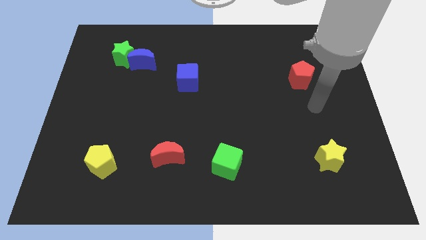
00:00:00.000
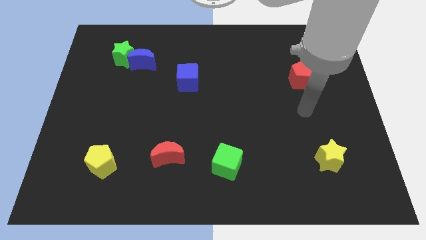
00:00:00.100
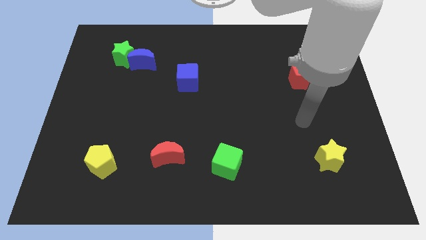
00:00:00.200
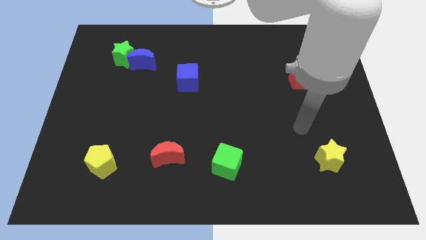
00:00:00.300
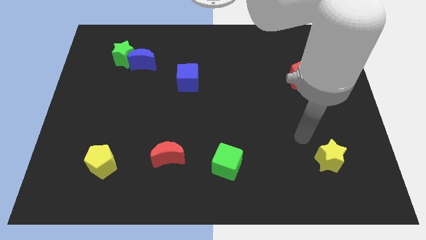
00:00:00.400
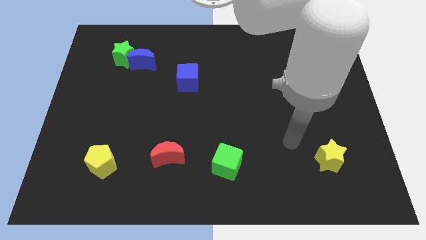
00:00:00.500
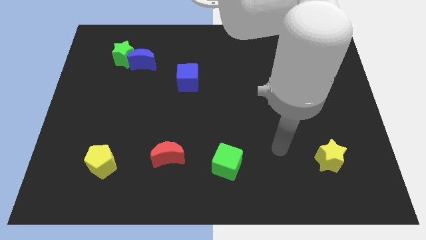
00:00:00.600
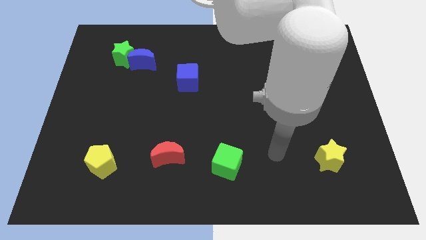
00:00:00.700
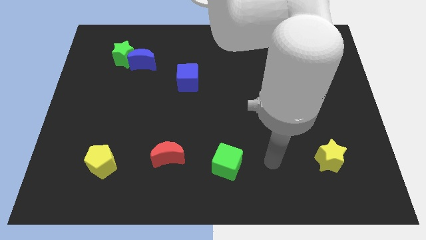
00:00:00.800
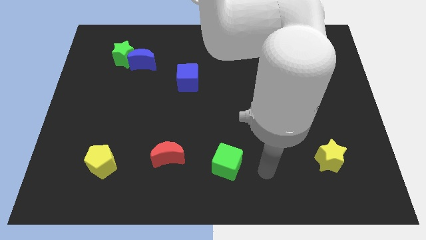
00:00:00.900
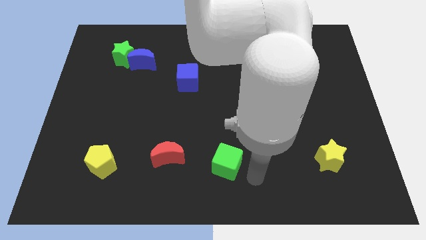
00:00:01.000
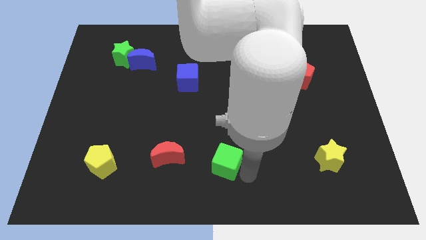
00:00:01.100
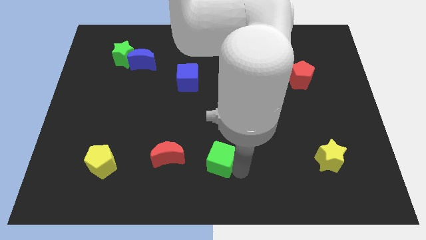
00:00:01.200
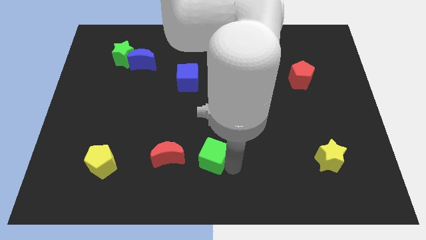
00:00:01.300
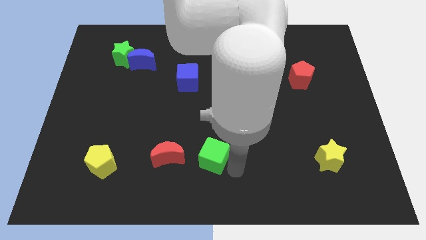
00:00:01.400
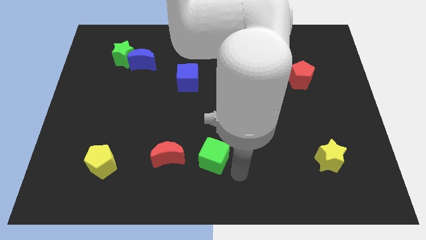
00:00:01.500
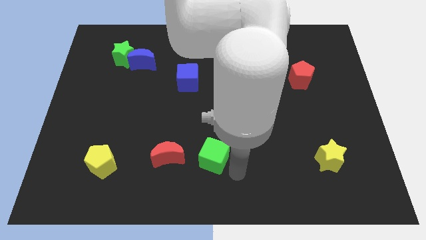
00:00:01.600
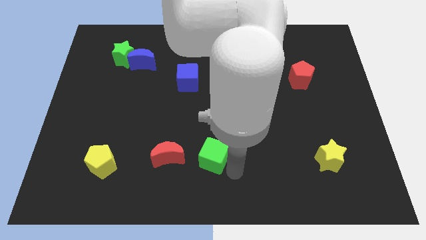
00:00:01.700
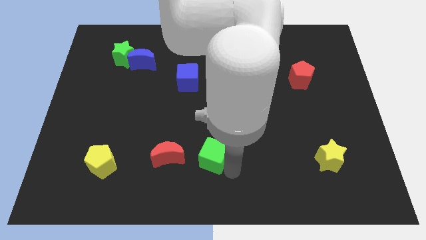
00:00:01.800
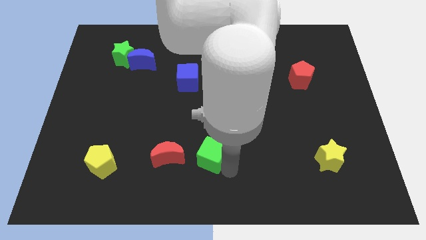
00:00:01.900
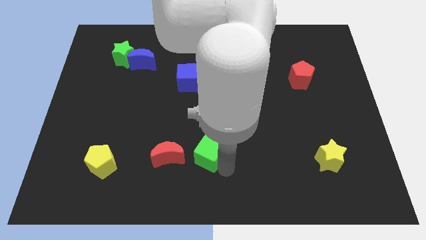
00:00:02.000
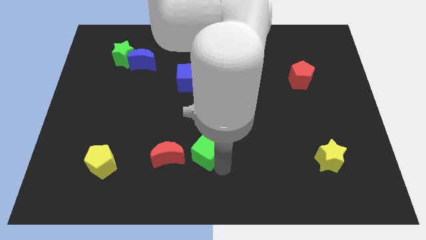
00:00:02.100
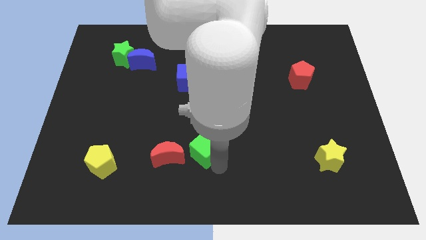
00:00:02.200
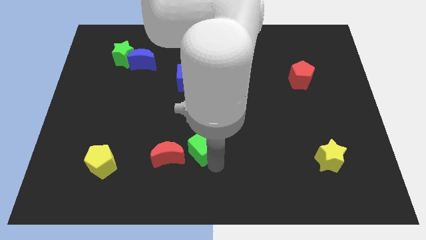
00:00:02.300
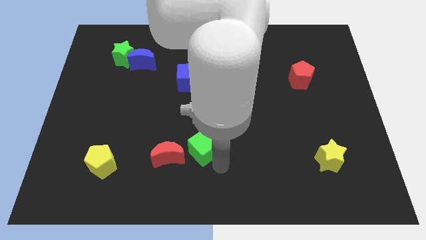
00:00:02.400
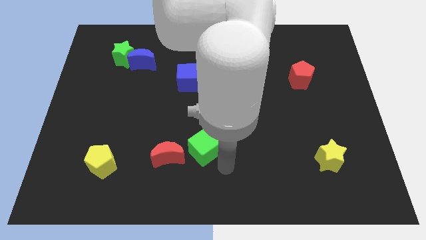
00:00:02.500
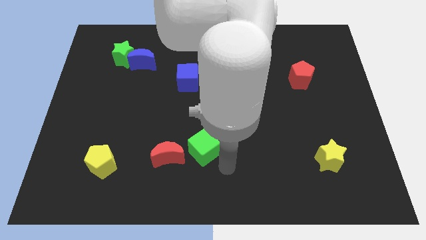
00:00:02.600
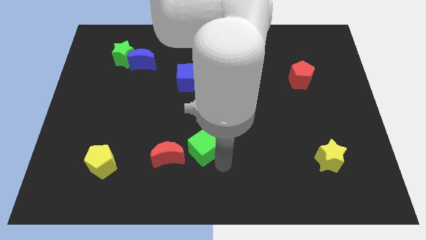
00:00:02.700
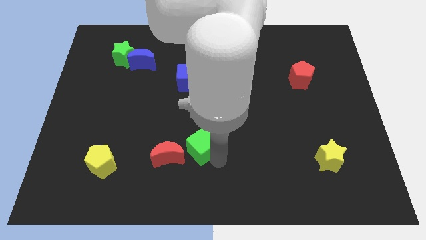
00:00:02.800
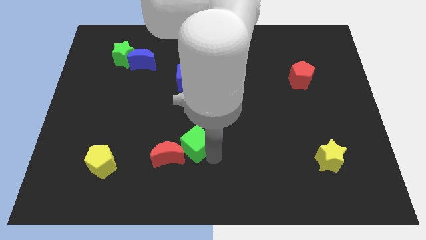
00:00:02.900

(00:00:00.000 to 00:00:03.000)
move the green cube a little bit up and to the left diagonally

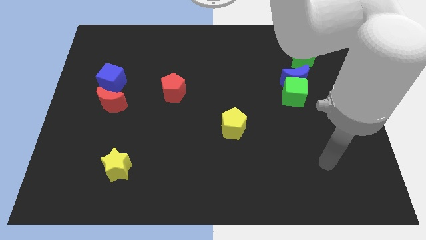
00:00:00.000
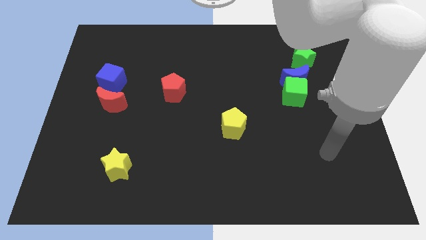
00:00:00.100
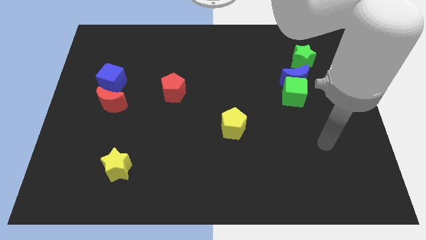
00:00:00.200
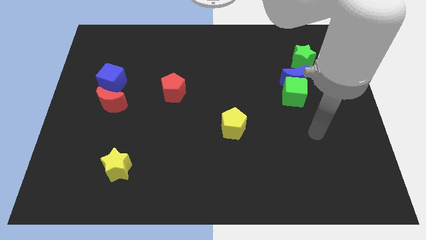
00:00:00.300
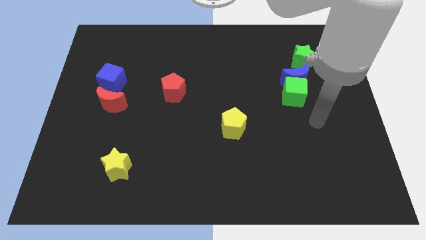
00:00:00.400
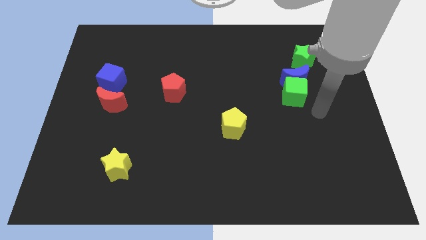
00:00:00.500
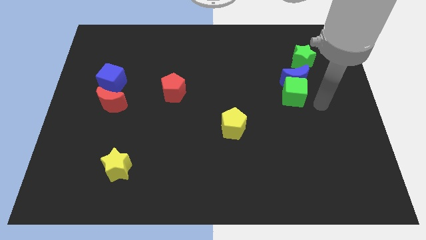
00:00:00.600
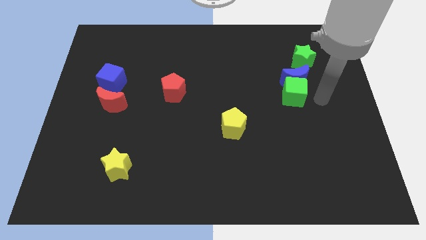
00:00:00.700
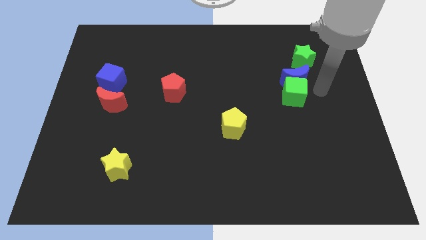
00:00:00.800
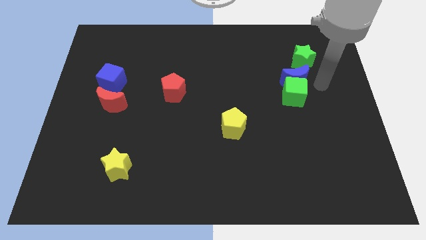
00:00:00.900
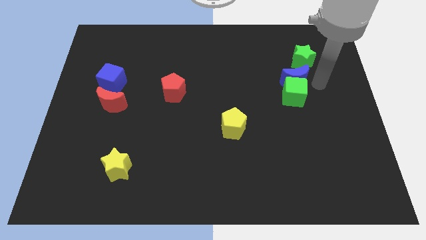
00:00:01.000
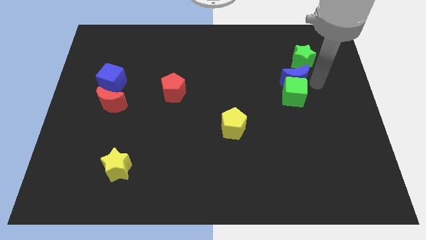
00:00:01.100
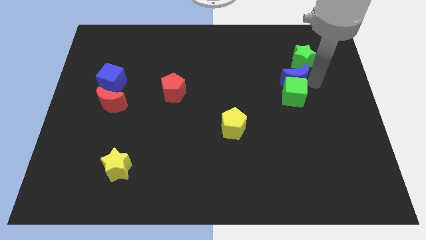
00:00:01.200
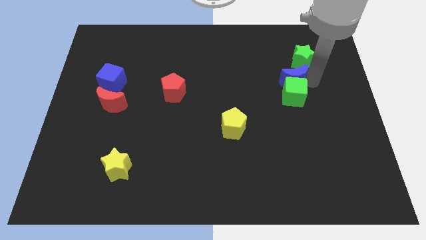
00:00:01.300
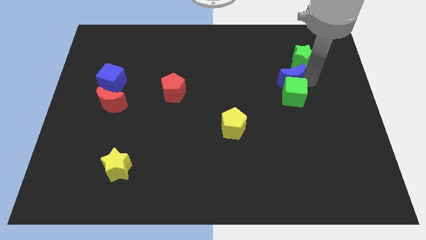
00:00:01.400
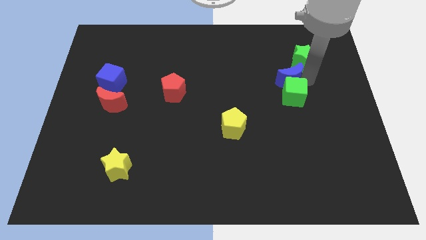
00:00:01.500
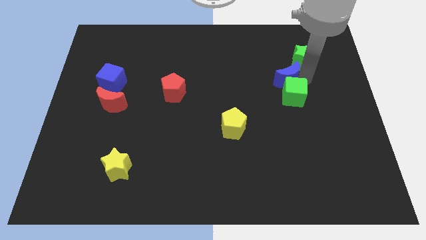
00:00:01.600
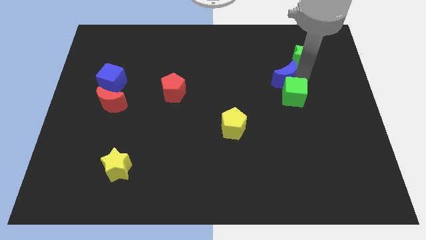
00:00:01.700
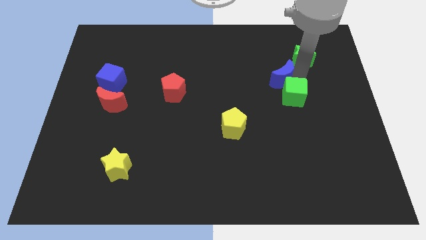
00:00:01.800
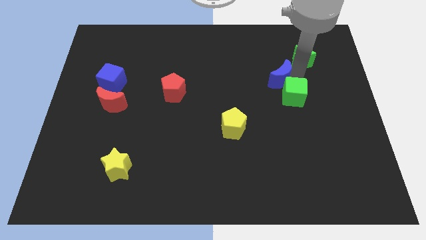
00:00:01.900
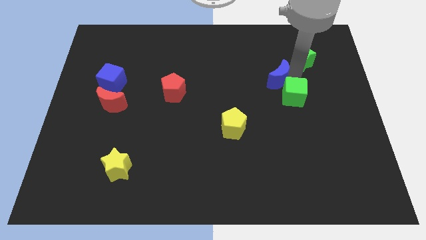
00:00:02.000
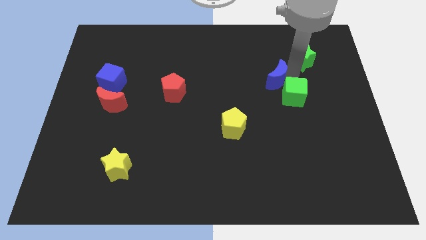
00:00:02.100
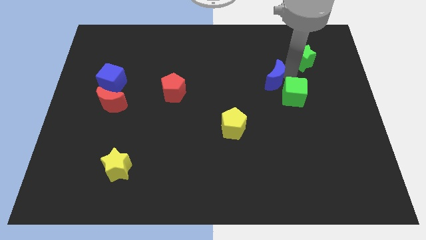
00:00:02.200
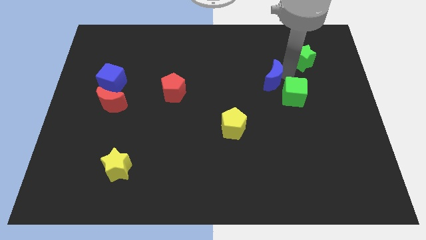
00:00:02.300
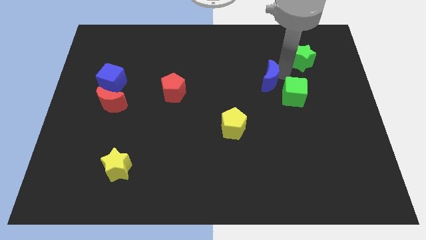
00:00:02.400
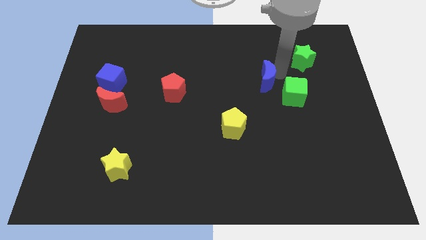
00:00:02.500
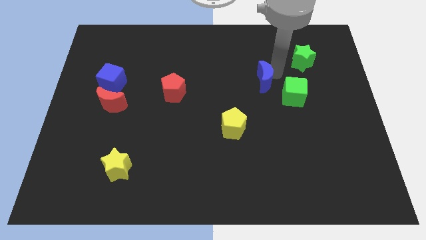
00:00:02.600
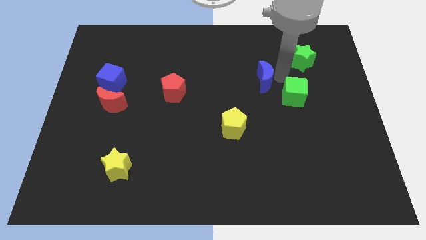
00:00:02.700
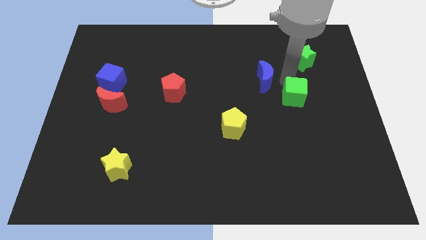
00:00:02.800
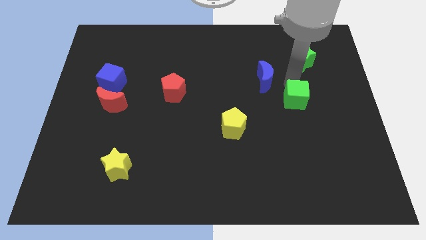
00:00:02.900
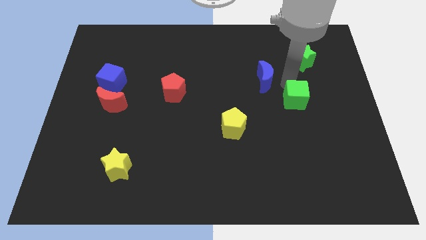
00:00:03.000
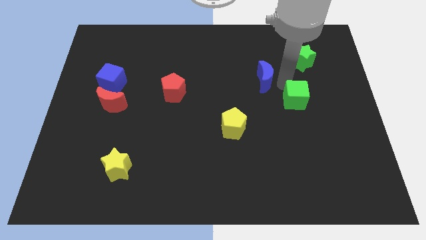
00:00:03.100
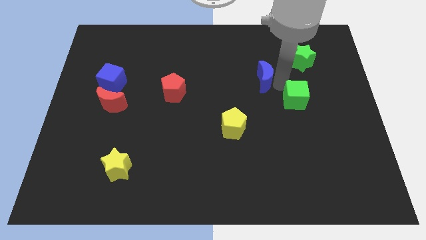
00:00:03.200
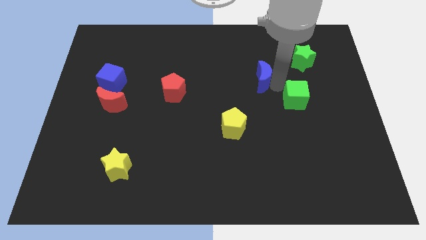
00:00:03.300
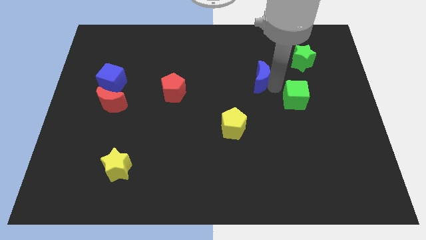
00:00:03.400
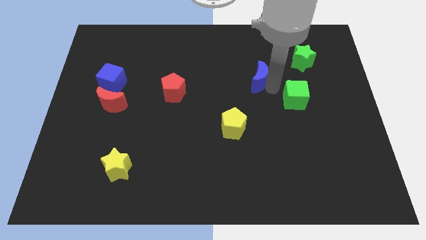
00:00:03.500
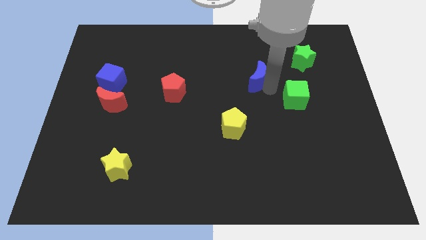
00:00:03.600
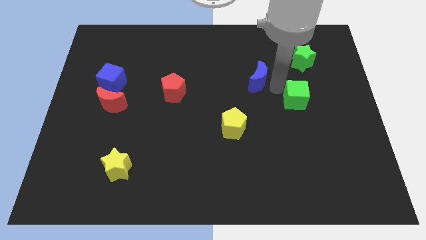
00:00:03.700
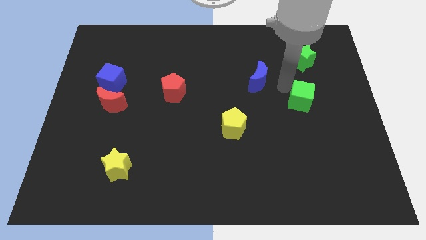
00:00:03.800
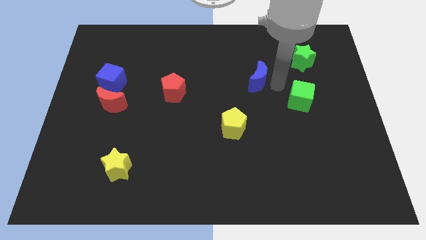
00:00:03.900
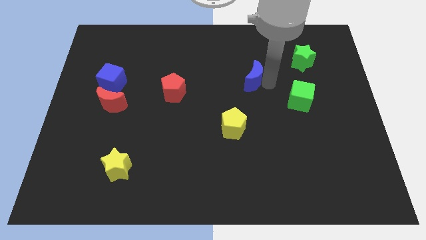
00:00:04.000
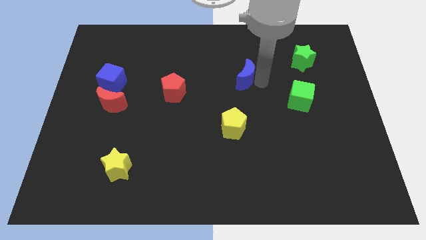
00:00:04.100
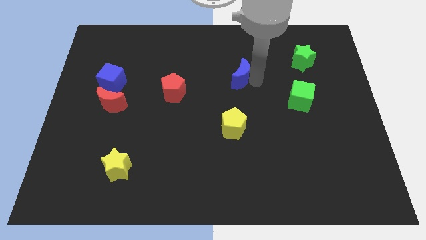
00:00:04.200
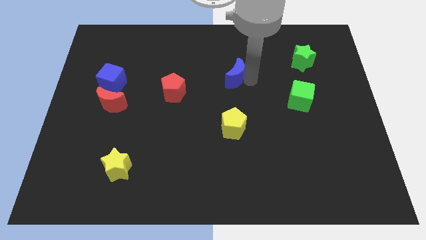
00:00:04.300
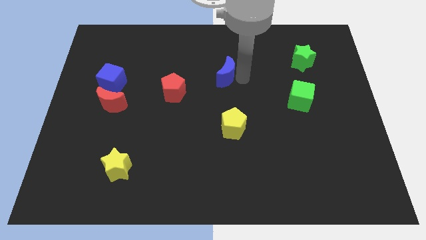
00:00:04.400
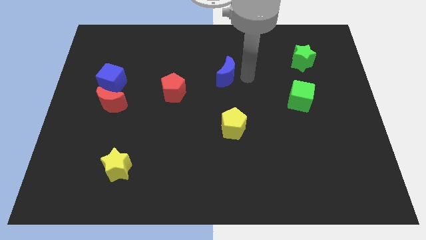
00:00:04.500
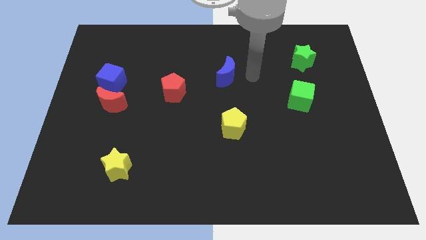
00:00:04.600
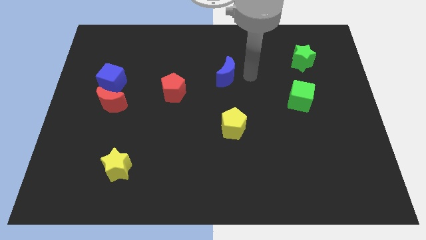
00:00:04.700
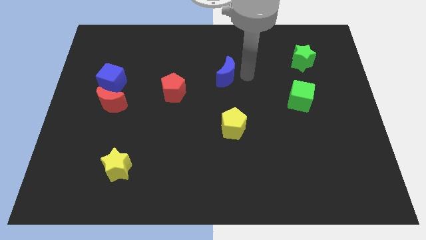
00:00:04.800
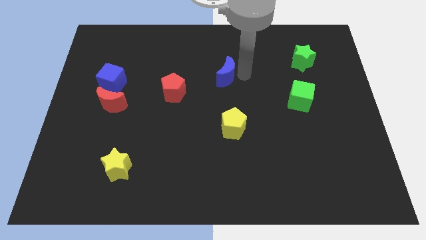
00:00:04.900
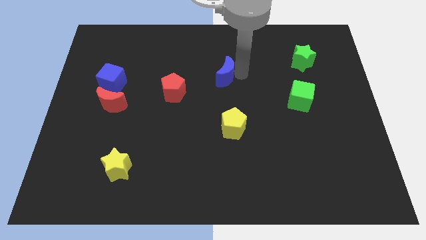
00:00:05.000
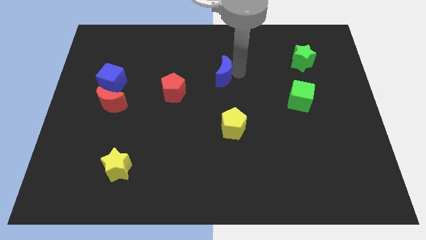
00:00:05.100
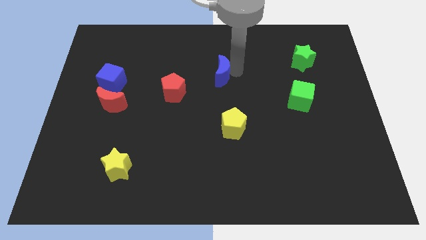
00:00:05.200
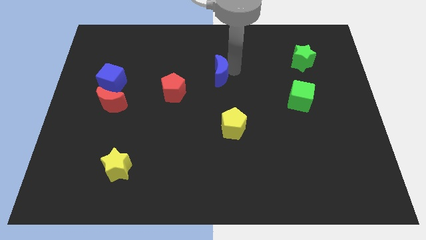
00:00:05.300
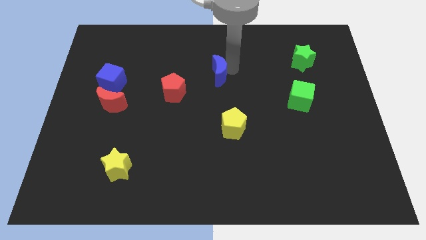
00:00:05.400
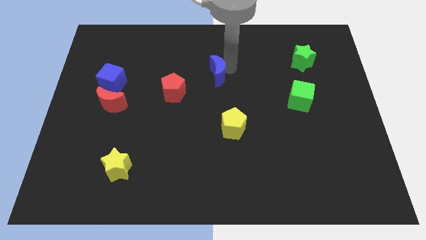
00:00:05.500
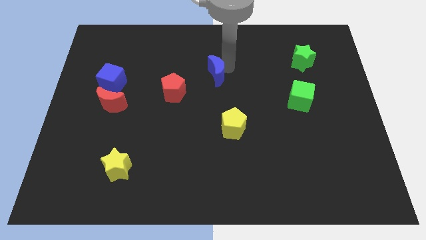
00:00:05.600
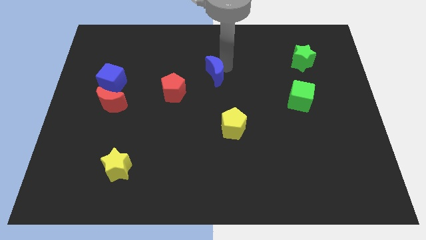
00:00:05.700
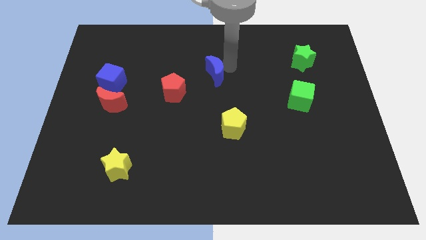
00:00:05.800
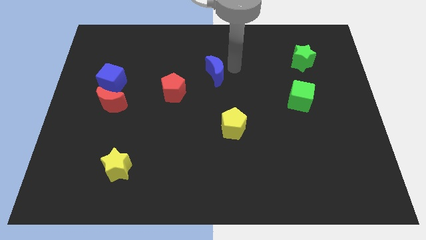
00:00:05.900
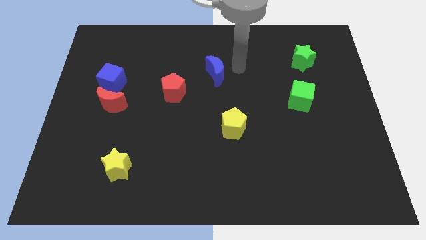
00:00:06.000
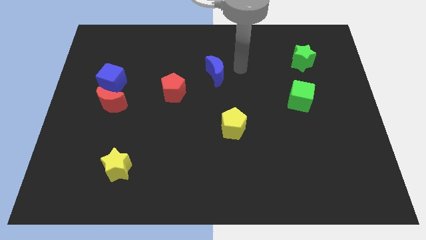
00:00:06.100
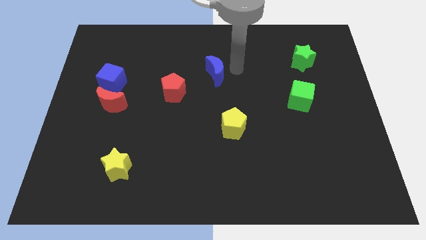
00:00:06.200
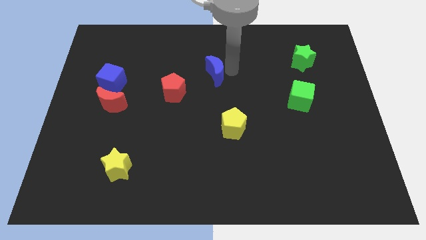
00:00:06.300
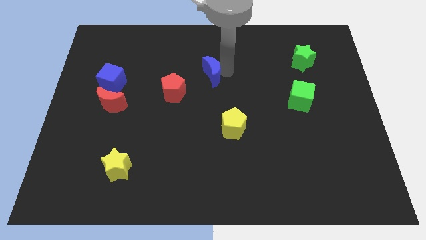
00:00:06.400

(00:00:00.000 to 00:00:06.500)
push the blue moon left
